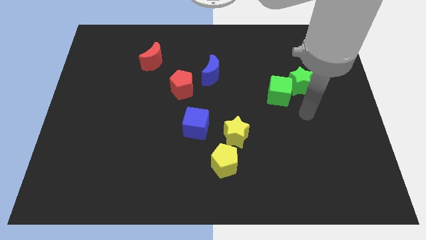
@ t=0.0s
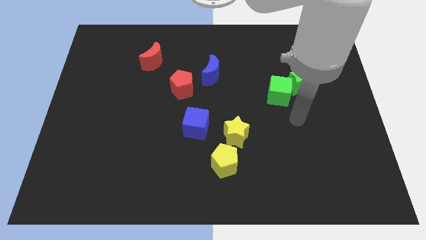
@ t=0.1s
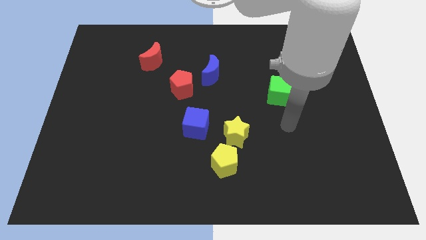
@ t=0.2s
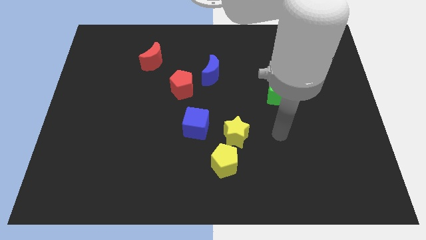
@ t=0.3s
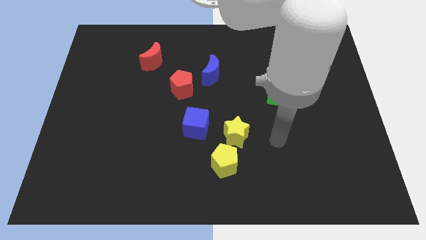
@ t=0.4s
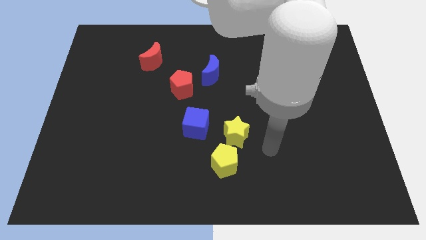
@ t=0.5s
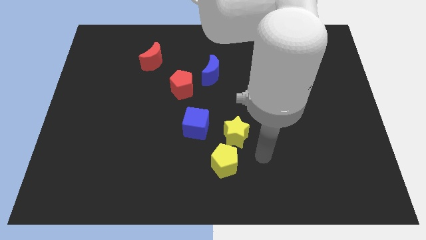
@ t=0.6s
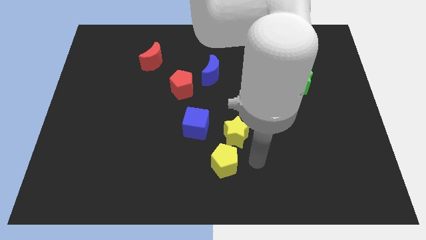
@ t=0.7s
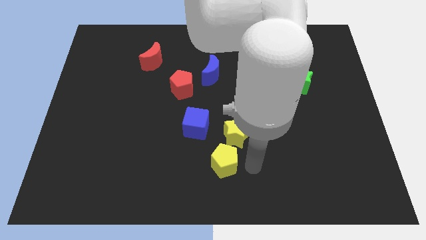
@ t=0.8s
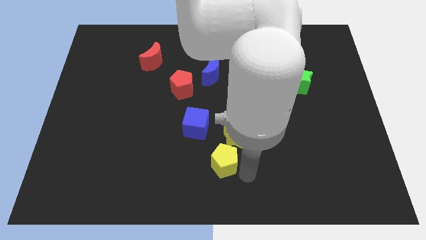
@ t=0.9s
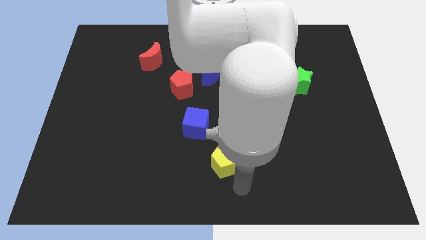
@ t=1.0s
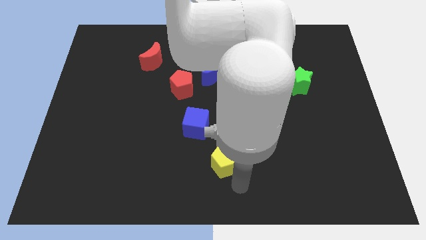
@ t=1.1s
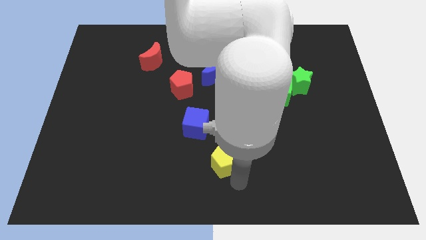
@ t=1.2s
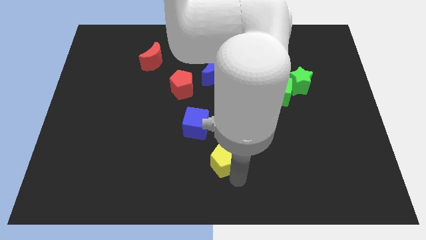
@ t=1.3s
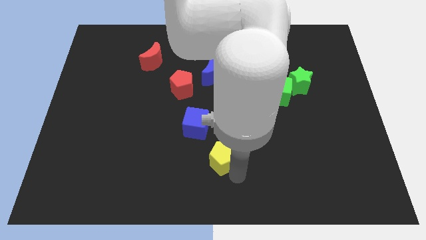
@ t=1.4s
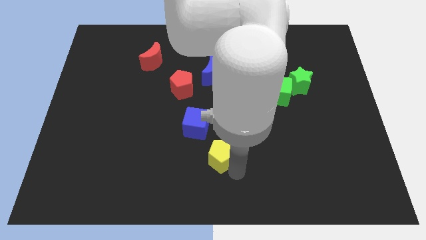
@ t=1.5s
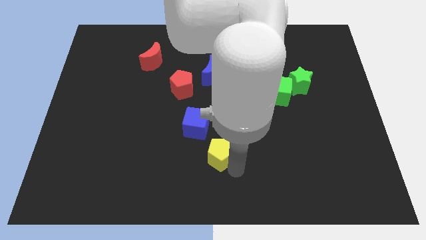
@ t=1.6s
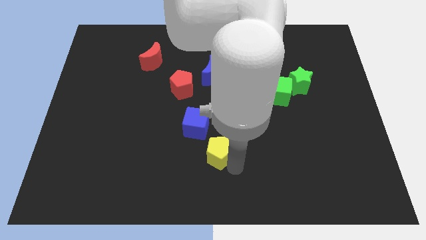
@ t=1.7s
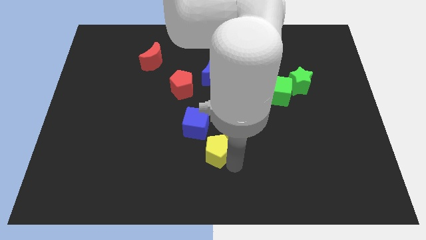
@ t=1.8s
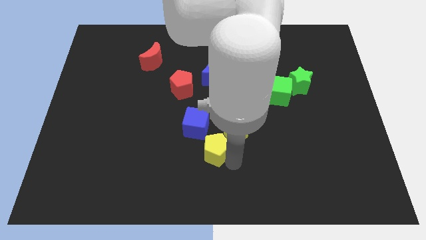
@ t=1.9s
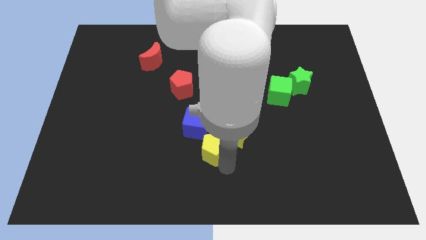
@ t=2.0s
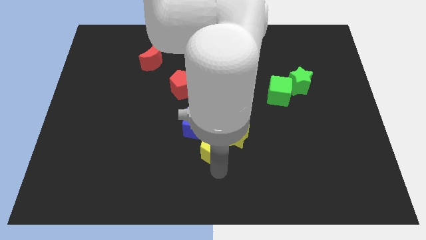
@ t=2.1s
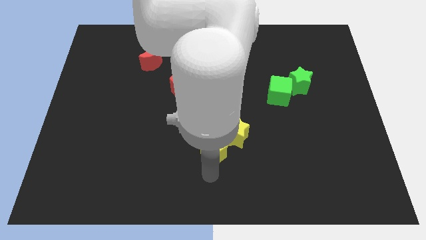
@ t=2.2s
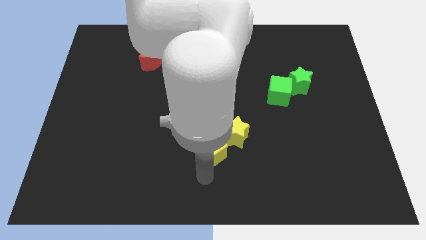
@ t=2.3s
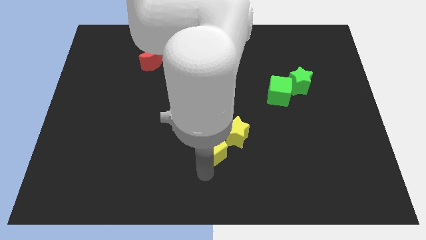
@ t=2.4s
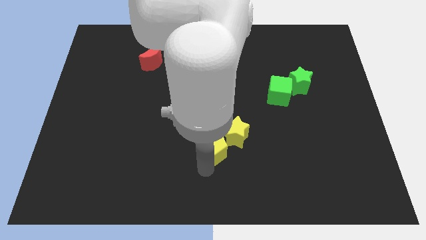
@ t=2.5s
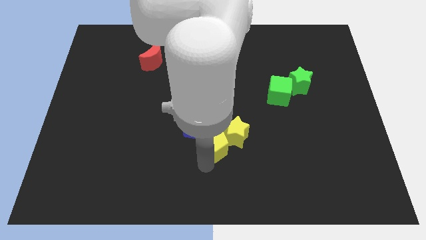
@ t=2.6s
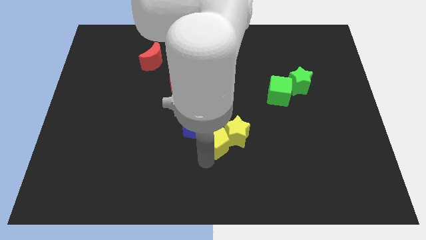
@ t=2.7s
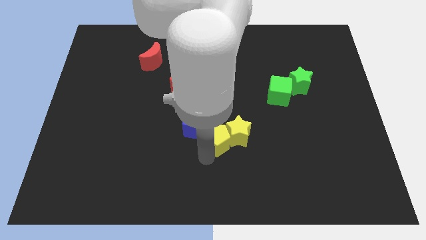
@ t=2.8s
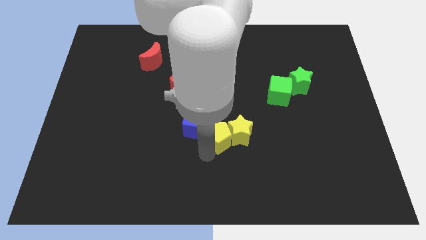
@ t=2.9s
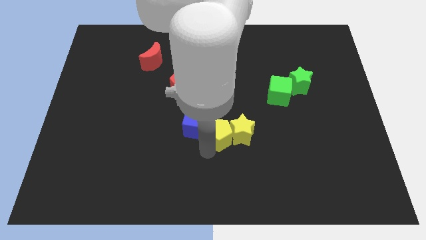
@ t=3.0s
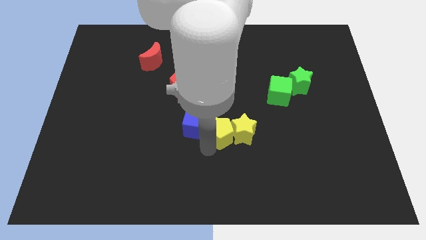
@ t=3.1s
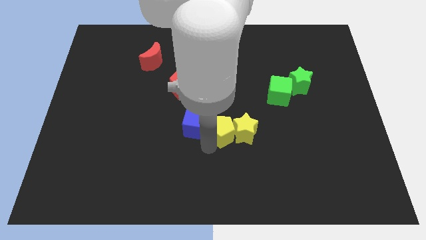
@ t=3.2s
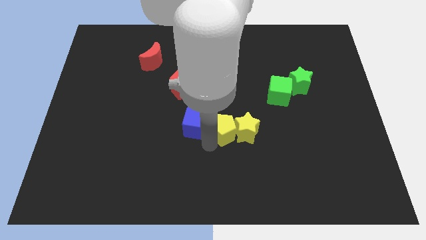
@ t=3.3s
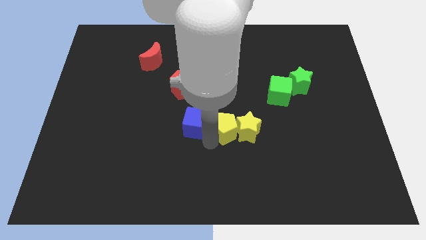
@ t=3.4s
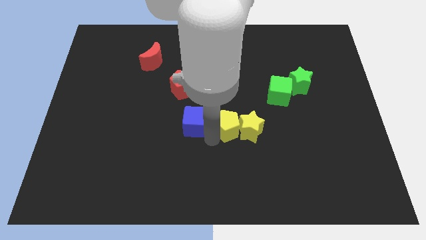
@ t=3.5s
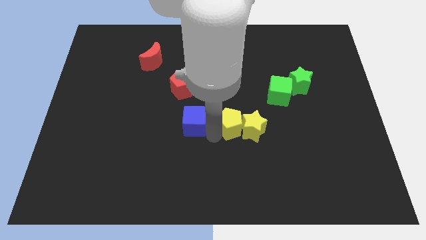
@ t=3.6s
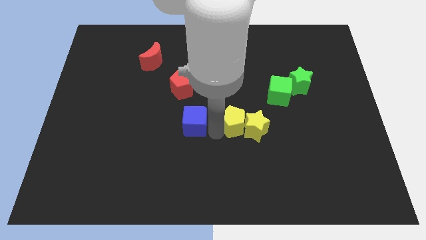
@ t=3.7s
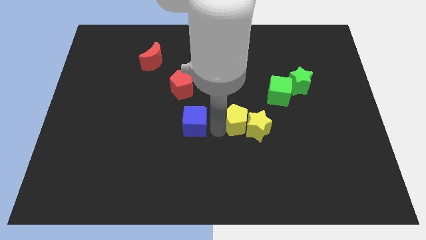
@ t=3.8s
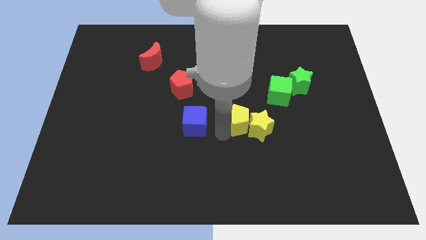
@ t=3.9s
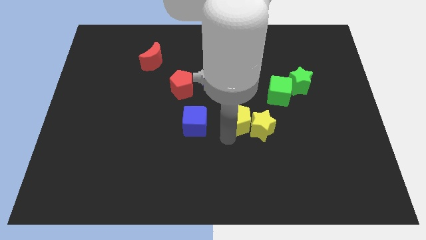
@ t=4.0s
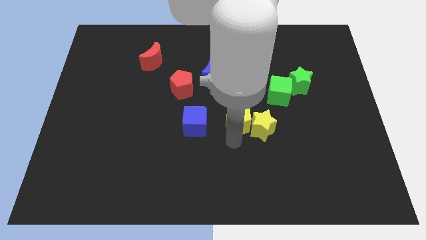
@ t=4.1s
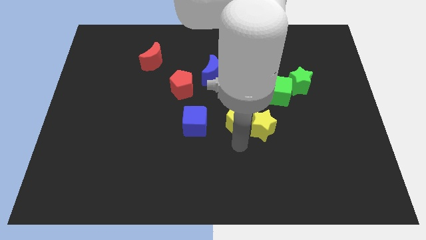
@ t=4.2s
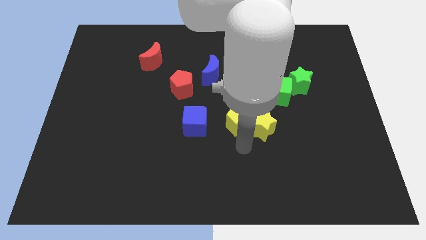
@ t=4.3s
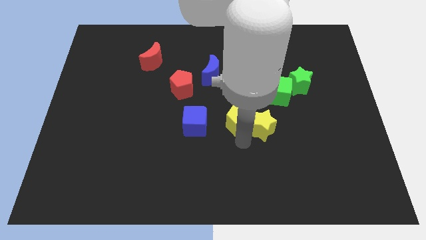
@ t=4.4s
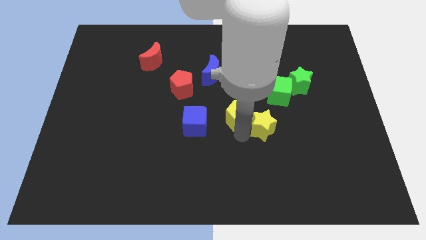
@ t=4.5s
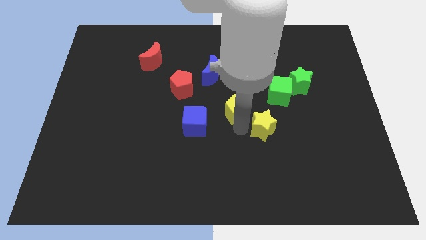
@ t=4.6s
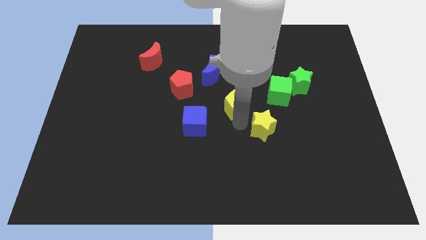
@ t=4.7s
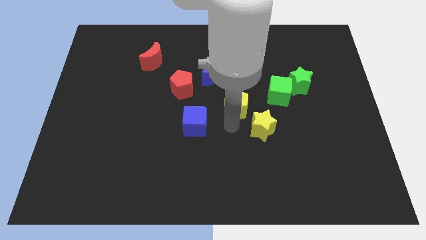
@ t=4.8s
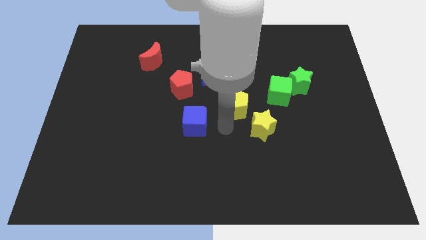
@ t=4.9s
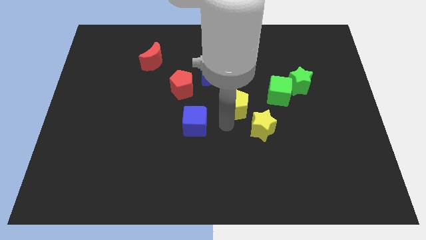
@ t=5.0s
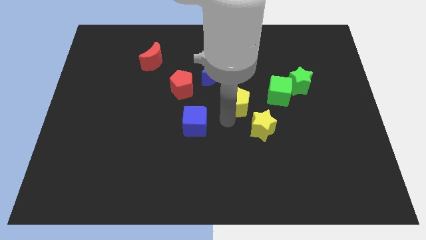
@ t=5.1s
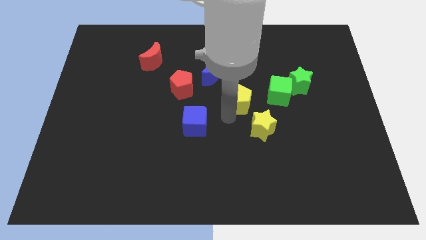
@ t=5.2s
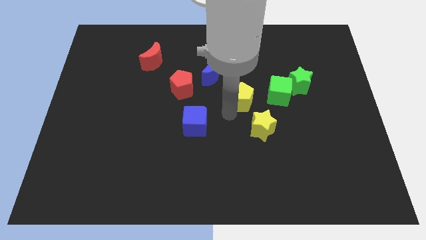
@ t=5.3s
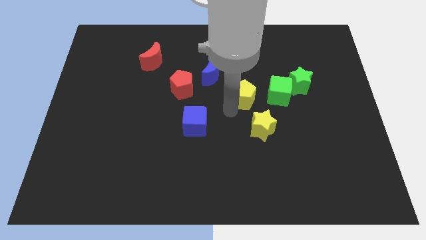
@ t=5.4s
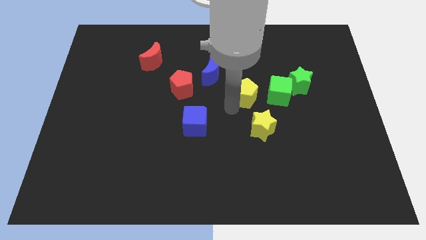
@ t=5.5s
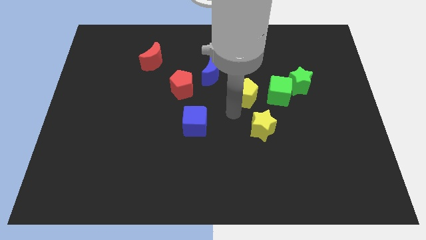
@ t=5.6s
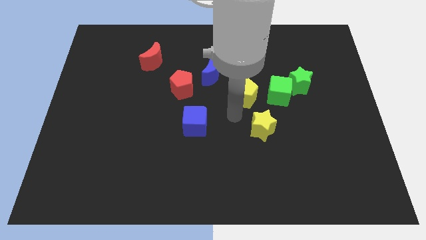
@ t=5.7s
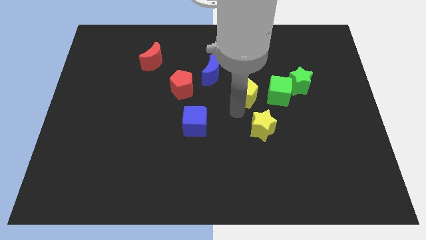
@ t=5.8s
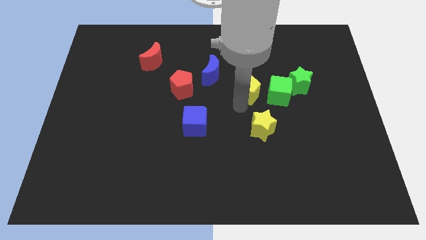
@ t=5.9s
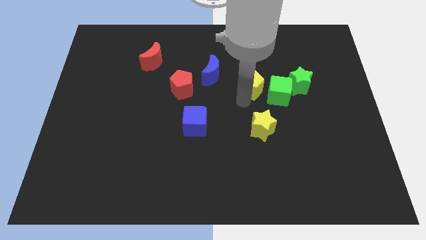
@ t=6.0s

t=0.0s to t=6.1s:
put the yellow pentagon to the top left of the green cube
